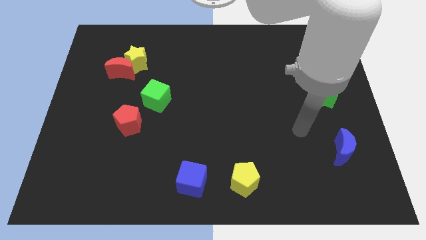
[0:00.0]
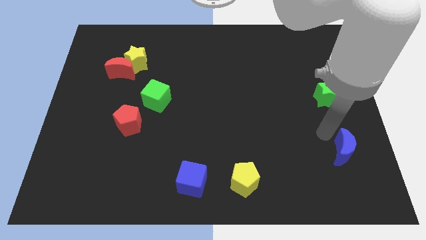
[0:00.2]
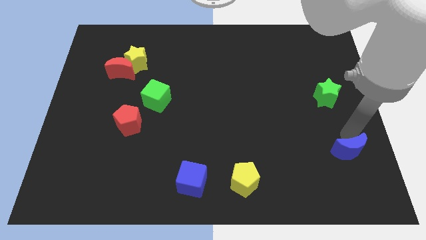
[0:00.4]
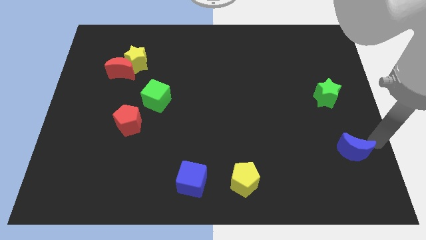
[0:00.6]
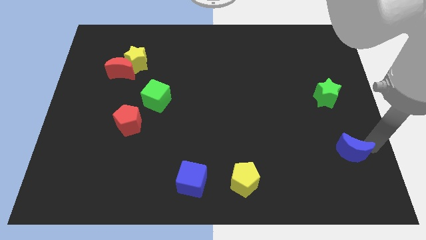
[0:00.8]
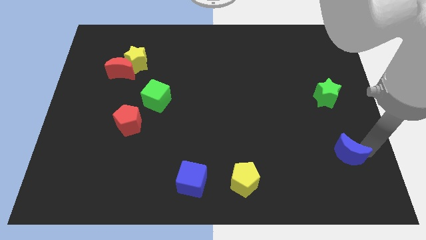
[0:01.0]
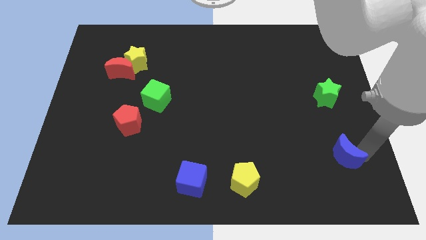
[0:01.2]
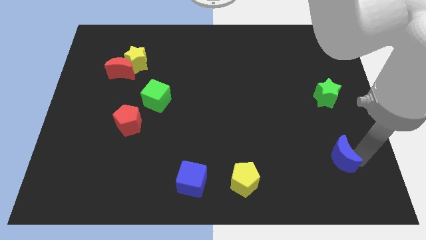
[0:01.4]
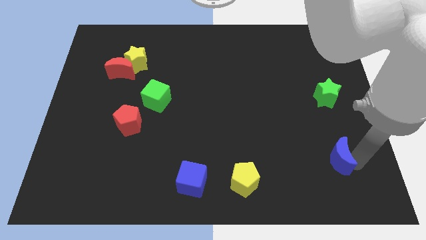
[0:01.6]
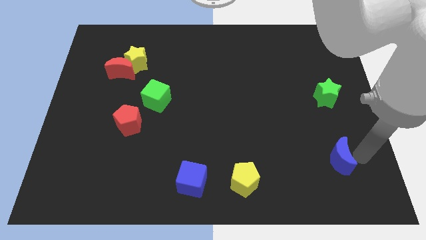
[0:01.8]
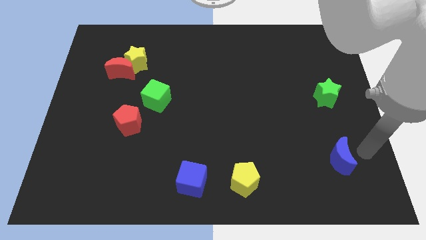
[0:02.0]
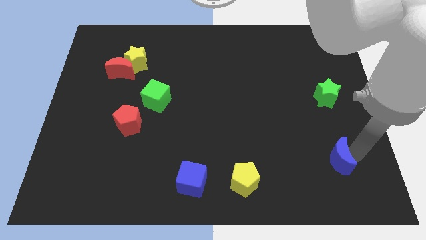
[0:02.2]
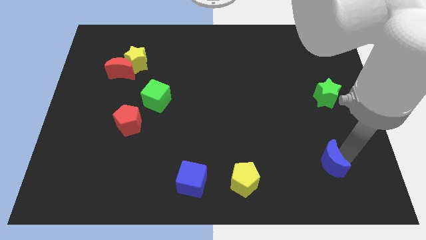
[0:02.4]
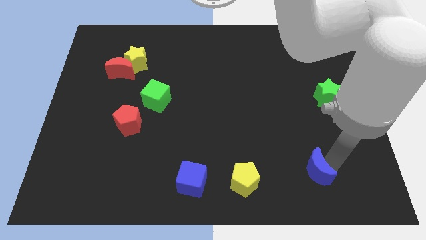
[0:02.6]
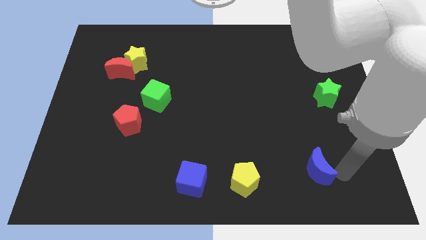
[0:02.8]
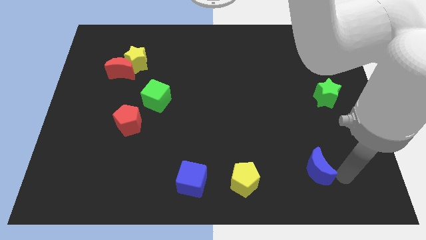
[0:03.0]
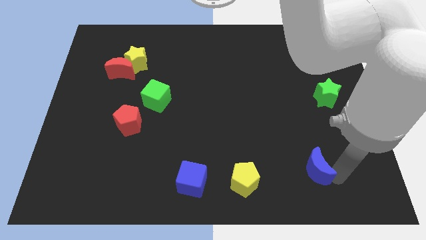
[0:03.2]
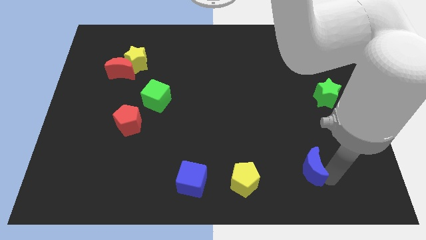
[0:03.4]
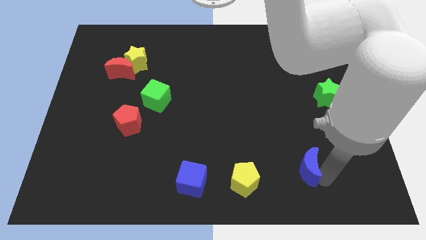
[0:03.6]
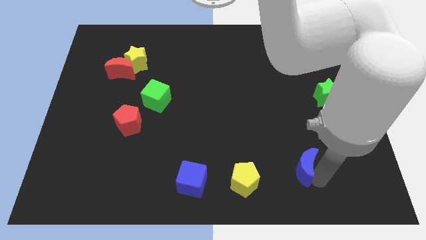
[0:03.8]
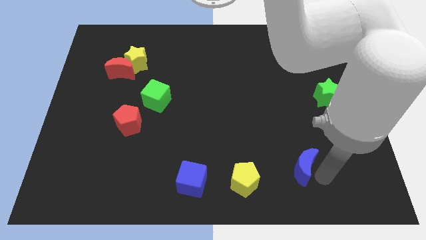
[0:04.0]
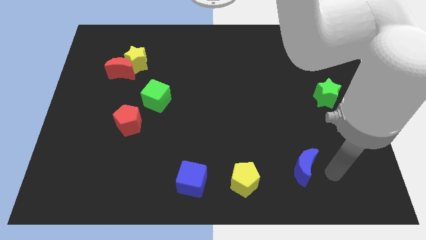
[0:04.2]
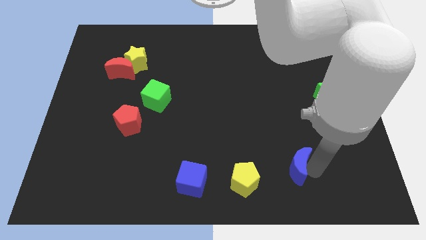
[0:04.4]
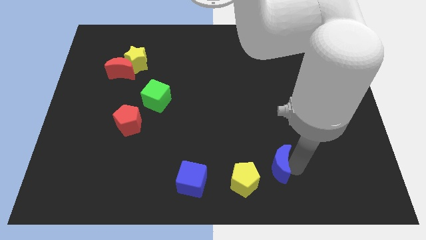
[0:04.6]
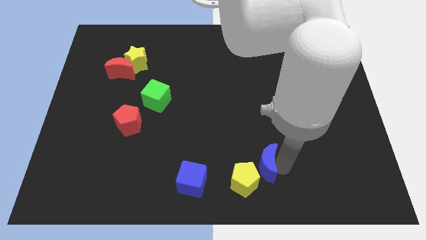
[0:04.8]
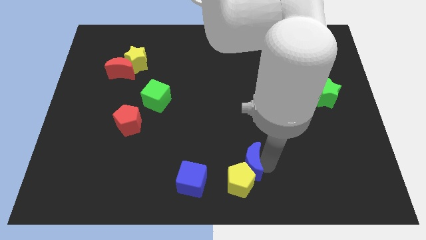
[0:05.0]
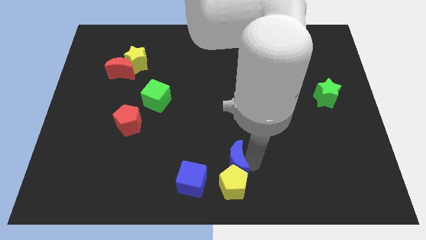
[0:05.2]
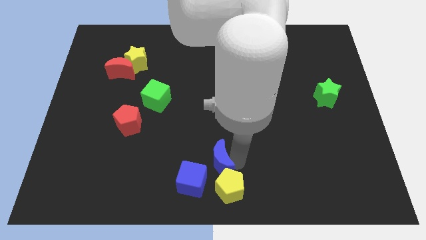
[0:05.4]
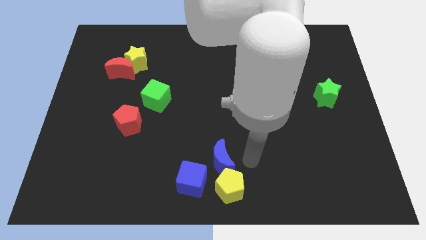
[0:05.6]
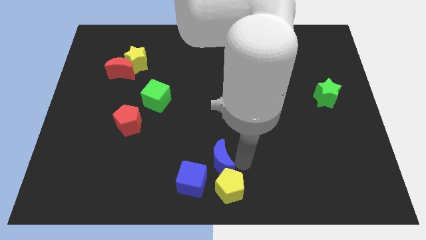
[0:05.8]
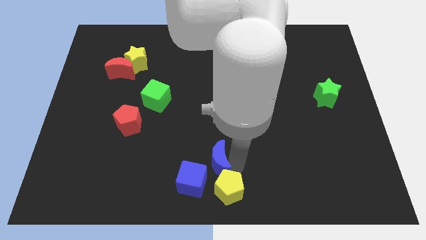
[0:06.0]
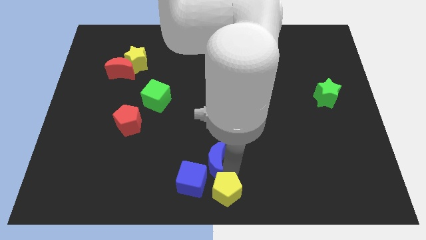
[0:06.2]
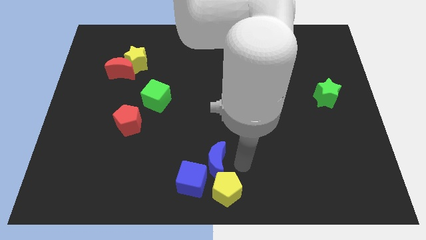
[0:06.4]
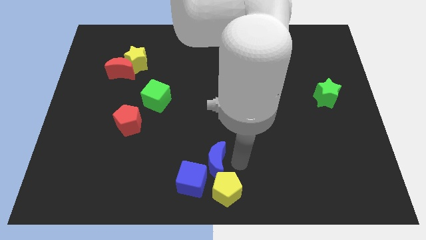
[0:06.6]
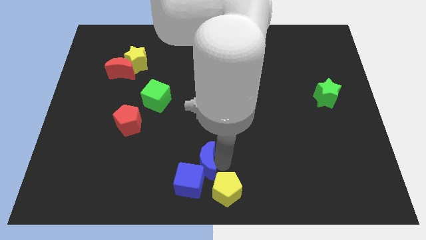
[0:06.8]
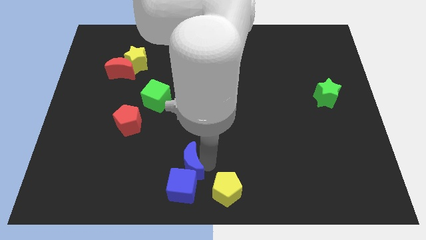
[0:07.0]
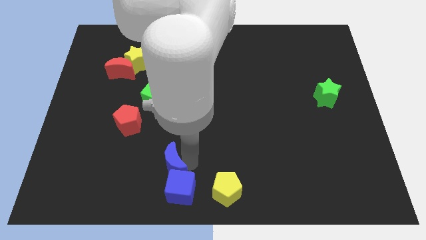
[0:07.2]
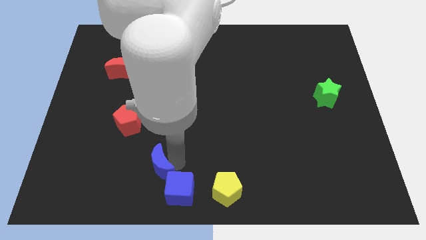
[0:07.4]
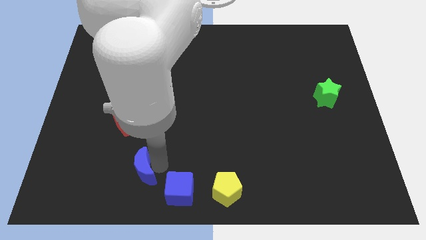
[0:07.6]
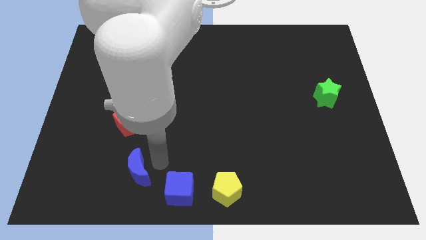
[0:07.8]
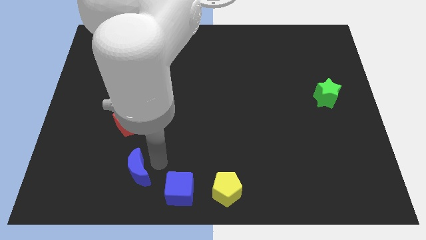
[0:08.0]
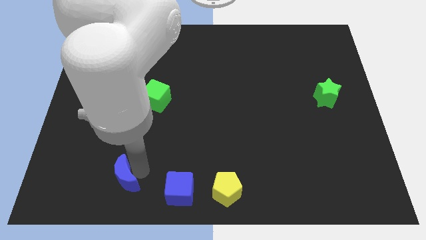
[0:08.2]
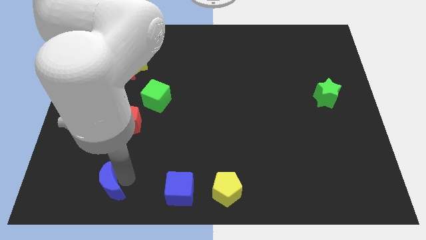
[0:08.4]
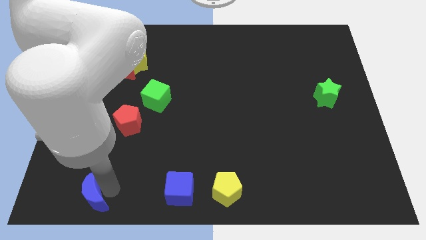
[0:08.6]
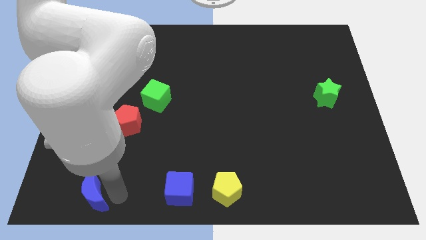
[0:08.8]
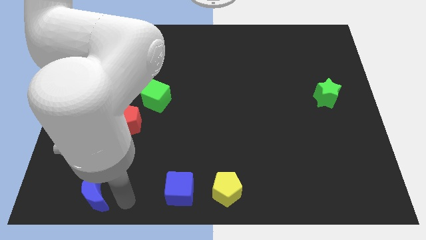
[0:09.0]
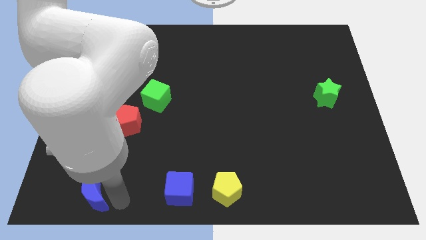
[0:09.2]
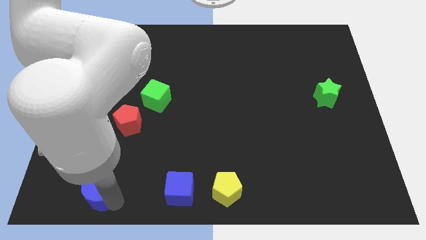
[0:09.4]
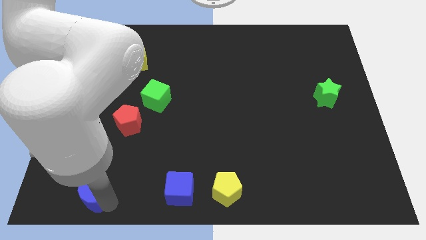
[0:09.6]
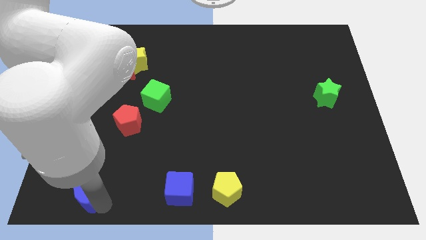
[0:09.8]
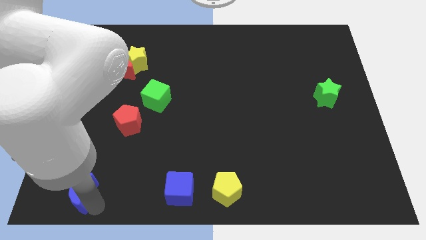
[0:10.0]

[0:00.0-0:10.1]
move the blue moon to the bottom left of the board

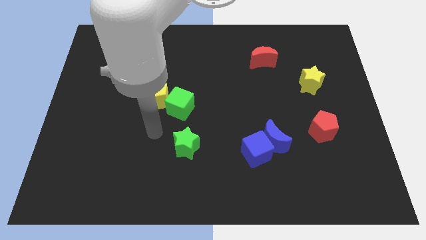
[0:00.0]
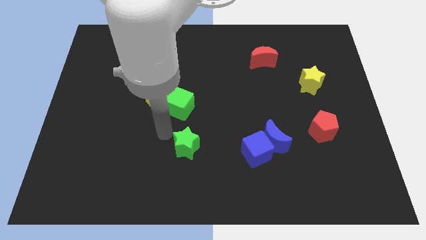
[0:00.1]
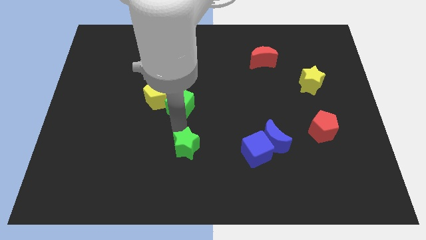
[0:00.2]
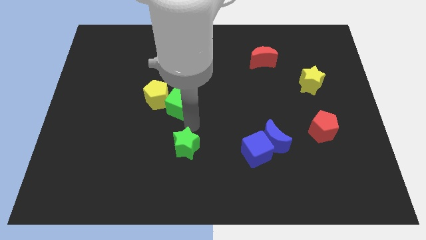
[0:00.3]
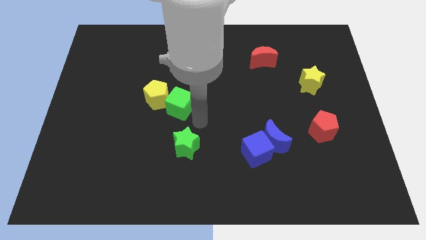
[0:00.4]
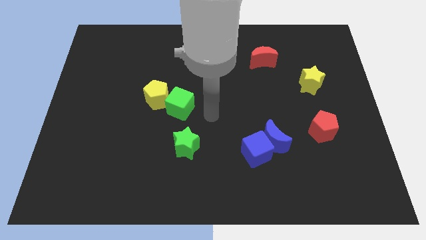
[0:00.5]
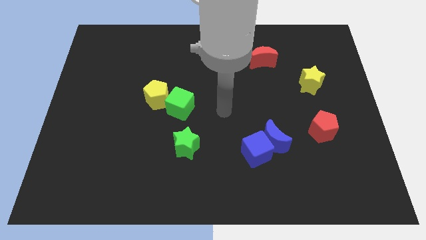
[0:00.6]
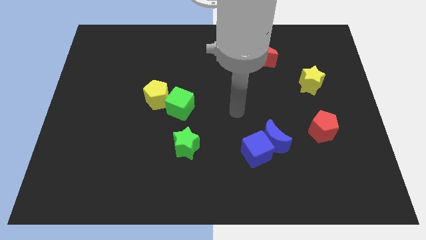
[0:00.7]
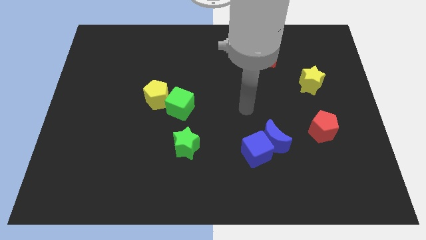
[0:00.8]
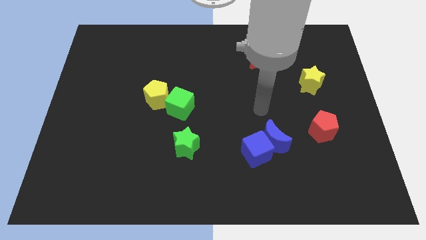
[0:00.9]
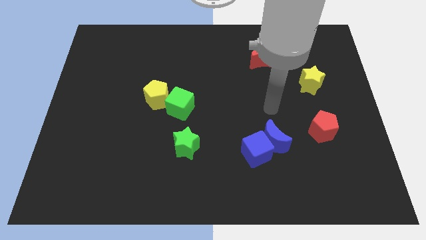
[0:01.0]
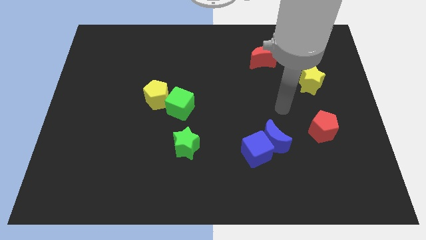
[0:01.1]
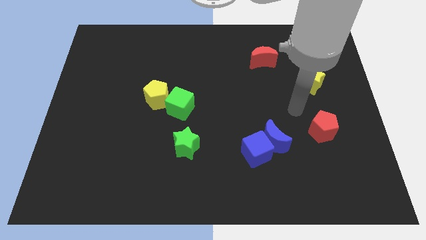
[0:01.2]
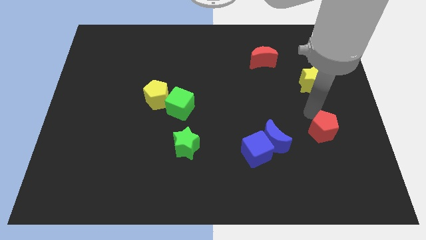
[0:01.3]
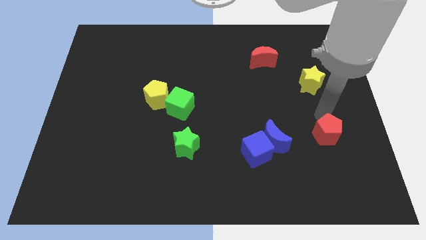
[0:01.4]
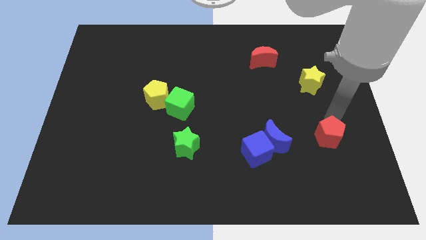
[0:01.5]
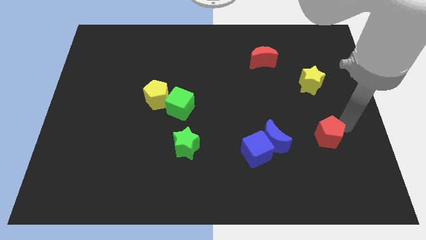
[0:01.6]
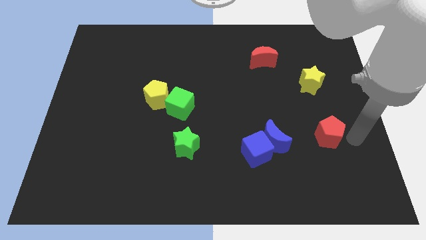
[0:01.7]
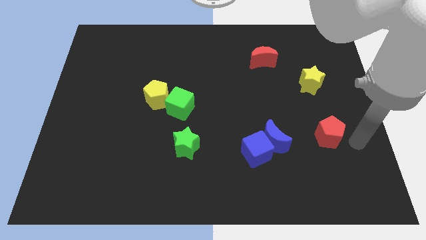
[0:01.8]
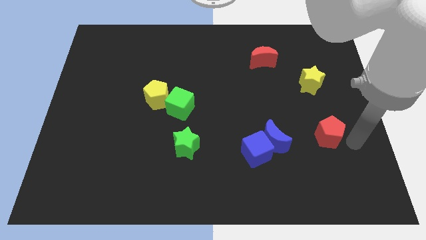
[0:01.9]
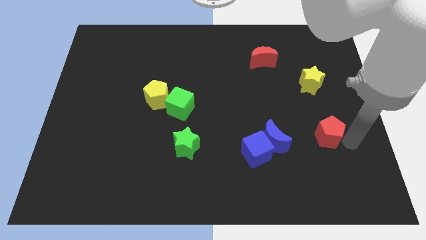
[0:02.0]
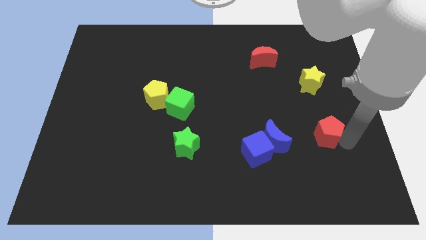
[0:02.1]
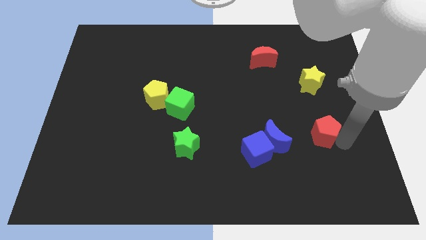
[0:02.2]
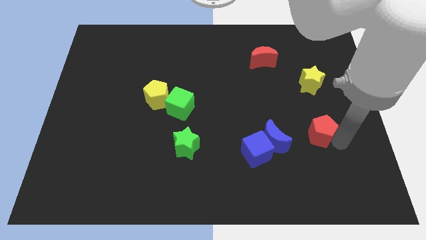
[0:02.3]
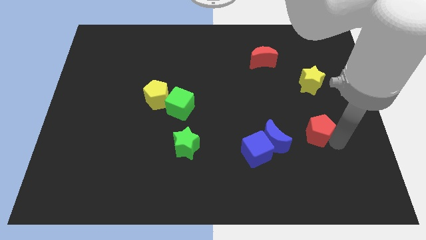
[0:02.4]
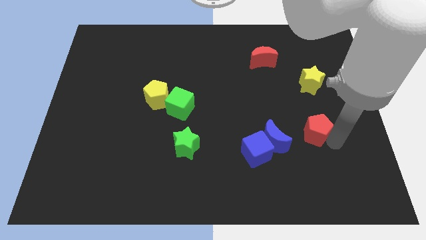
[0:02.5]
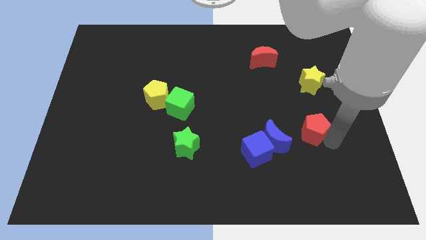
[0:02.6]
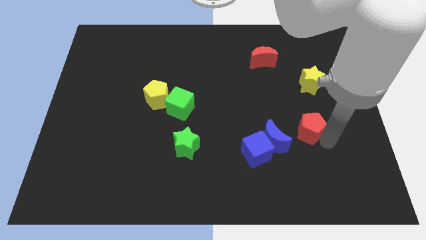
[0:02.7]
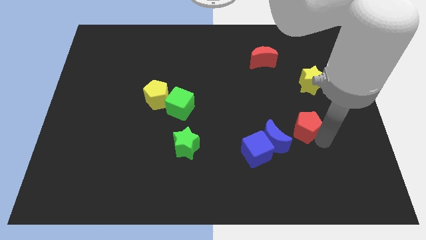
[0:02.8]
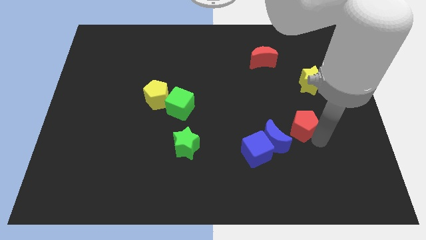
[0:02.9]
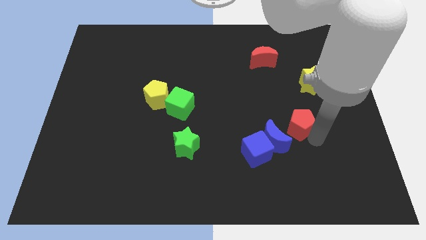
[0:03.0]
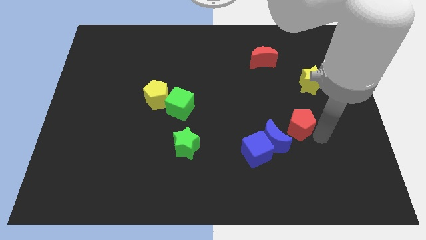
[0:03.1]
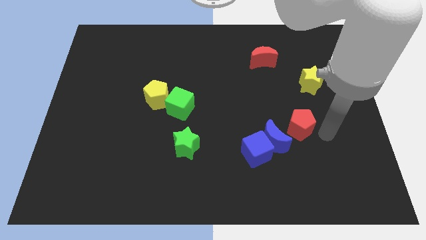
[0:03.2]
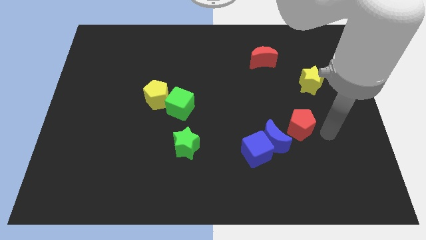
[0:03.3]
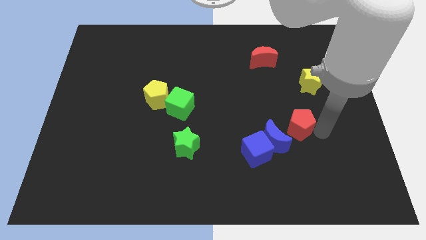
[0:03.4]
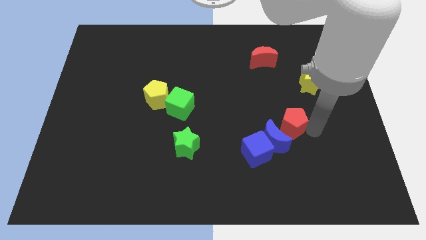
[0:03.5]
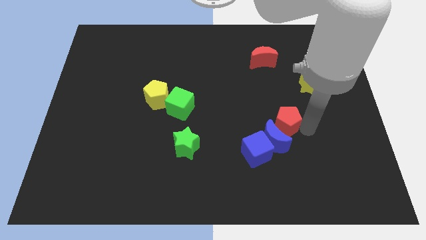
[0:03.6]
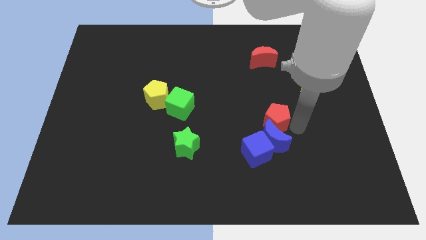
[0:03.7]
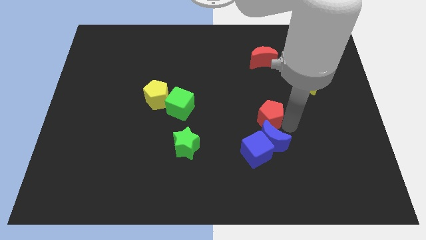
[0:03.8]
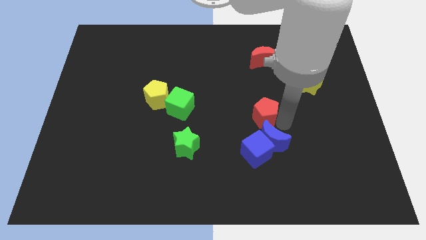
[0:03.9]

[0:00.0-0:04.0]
push the red pentagon to the middle of the board
